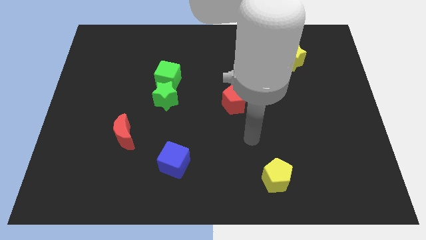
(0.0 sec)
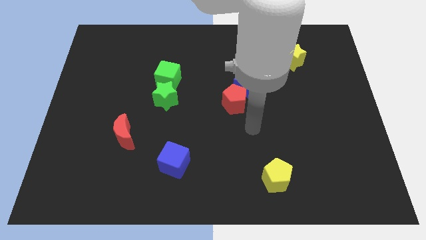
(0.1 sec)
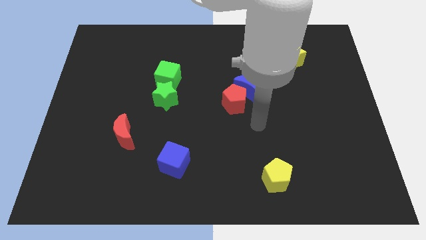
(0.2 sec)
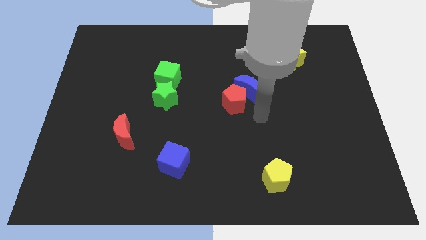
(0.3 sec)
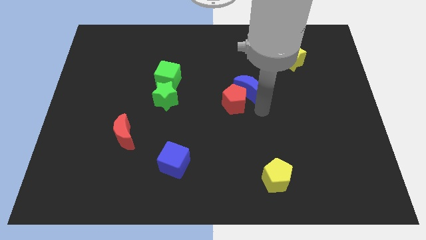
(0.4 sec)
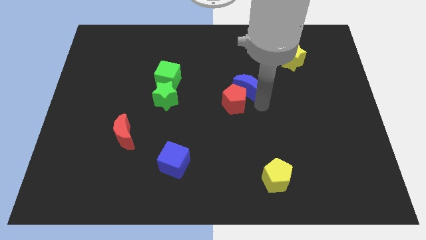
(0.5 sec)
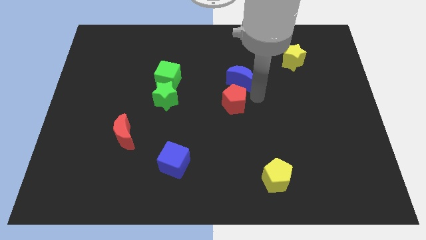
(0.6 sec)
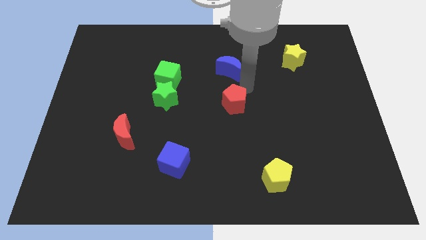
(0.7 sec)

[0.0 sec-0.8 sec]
separate the red pentagon from the blue moon

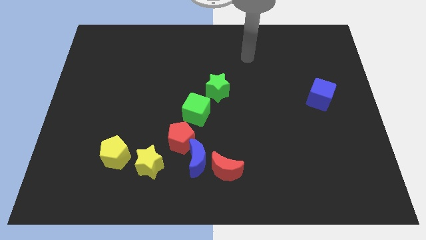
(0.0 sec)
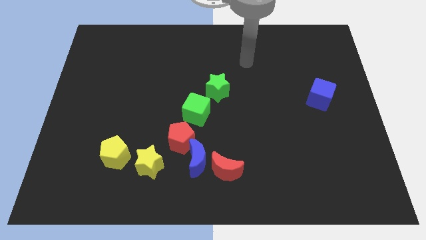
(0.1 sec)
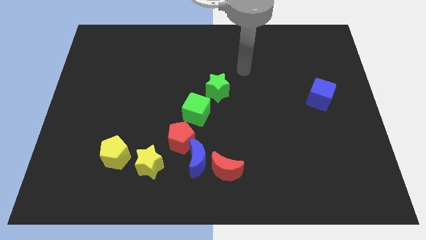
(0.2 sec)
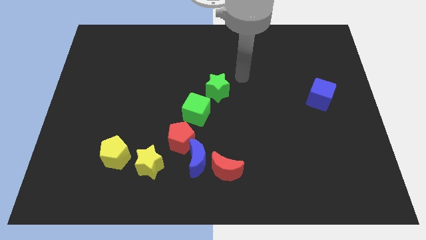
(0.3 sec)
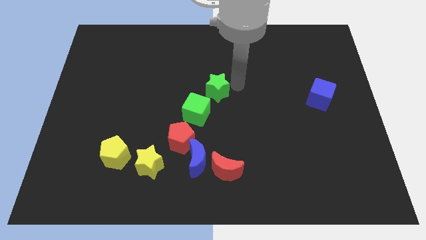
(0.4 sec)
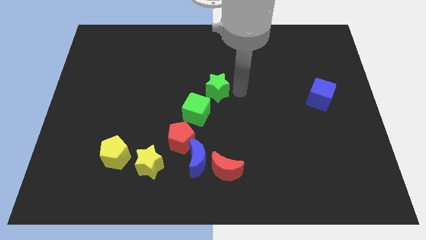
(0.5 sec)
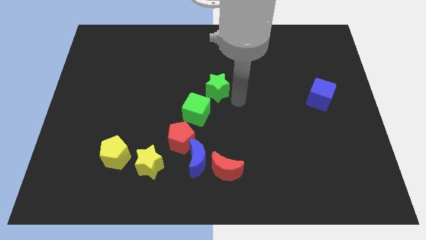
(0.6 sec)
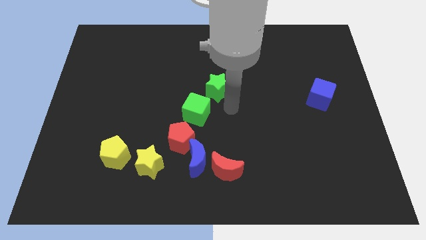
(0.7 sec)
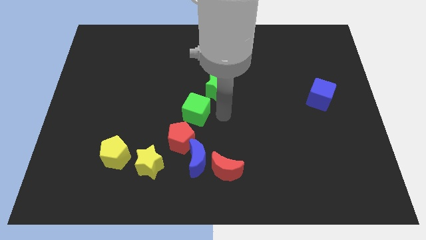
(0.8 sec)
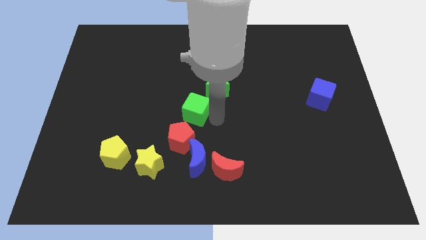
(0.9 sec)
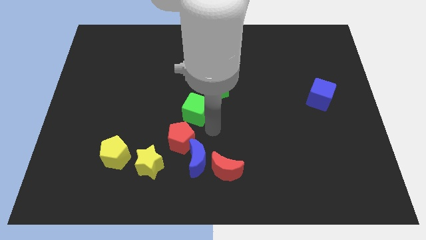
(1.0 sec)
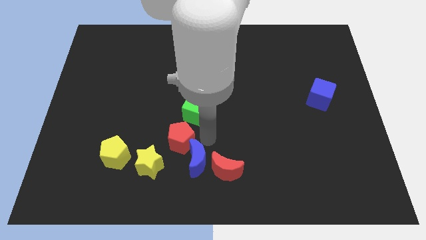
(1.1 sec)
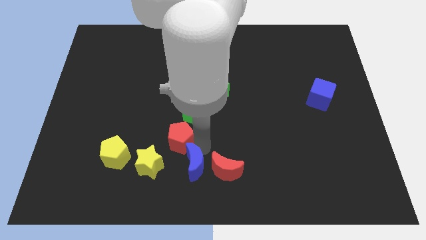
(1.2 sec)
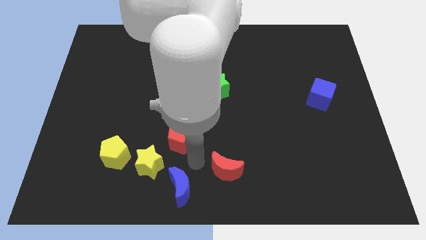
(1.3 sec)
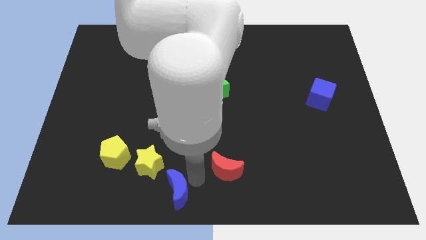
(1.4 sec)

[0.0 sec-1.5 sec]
pull the red moon apart from the blue moon

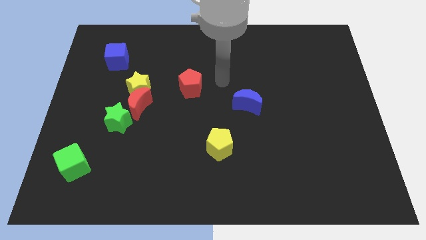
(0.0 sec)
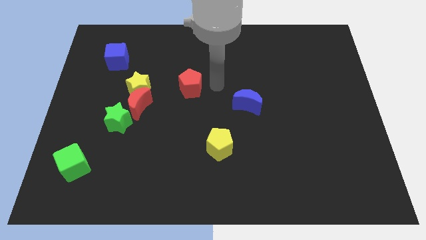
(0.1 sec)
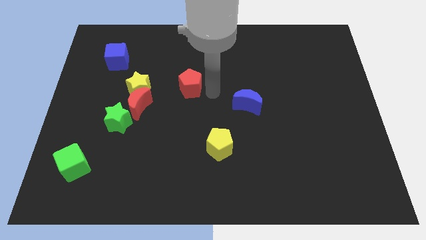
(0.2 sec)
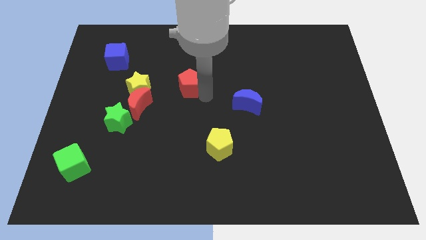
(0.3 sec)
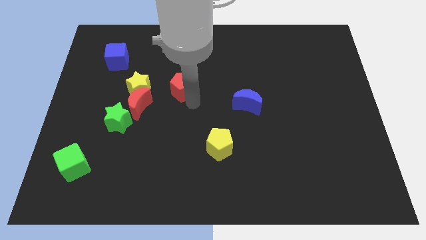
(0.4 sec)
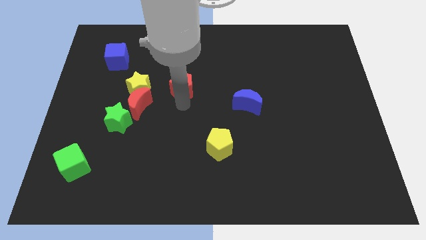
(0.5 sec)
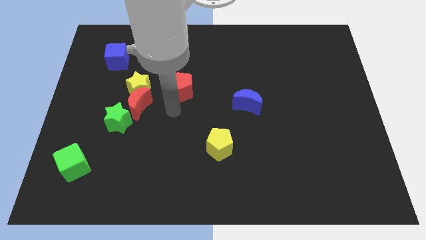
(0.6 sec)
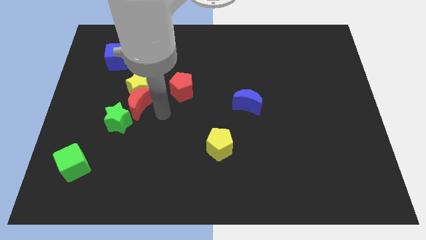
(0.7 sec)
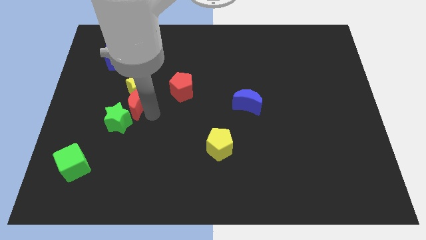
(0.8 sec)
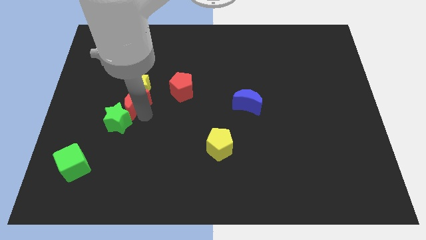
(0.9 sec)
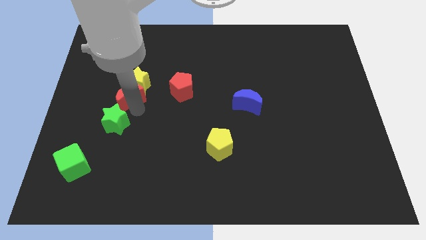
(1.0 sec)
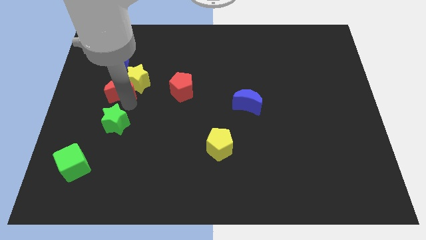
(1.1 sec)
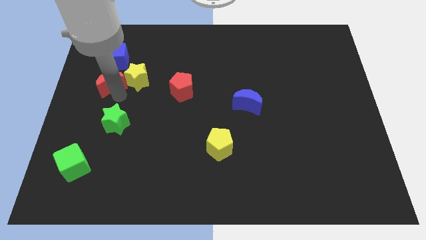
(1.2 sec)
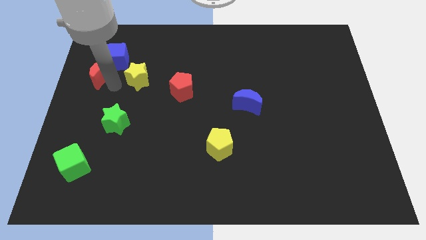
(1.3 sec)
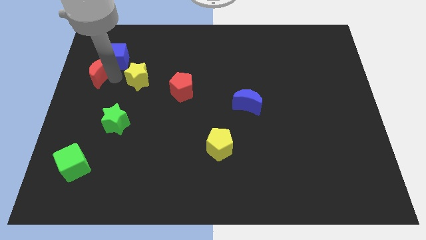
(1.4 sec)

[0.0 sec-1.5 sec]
separate the yellow star from the red moon

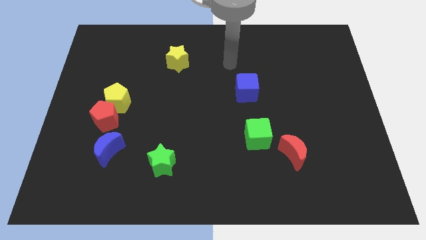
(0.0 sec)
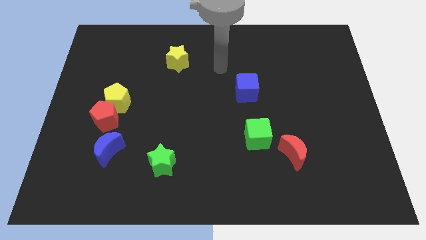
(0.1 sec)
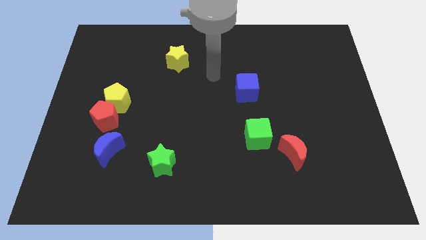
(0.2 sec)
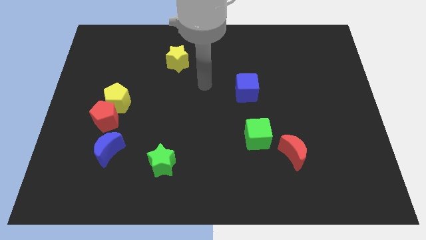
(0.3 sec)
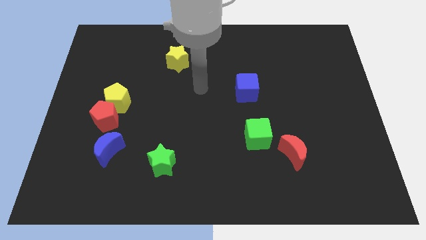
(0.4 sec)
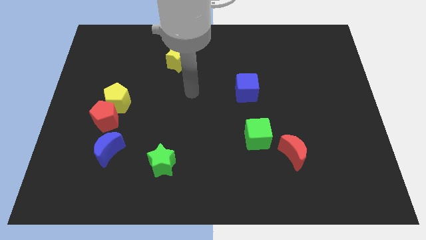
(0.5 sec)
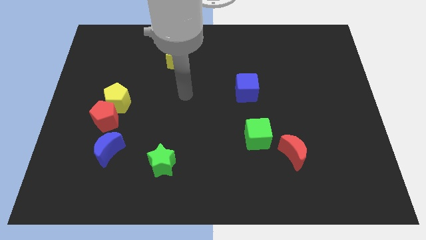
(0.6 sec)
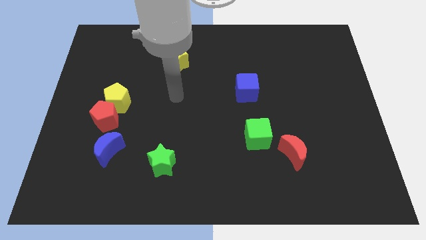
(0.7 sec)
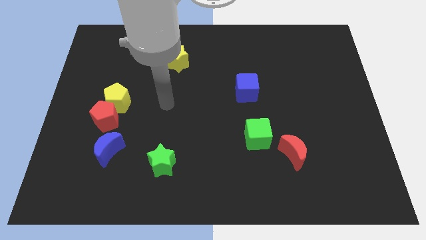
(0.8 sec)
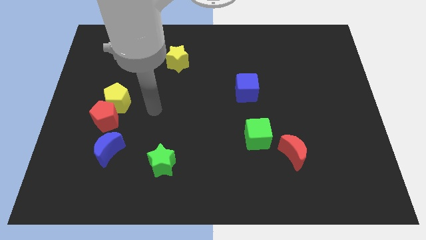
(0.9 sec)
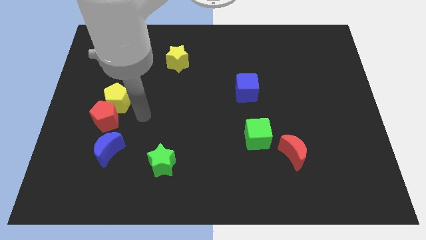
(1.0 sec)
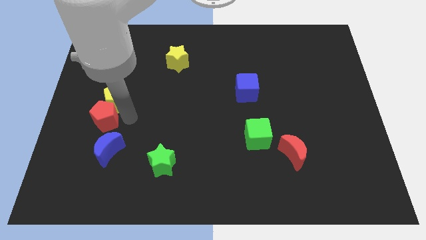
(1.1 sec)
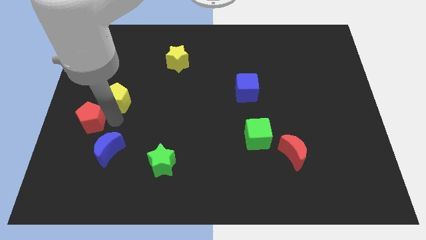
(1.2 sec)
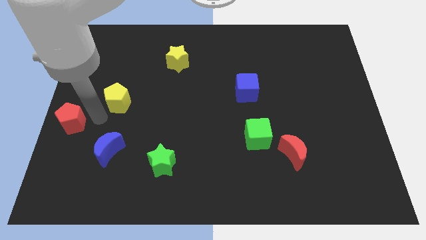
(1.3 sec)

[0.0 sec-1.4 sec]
separate the yellow pentagon from the red pentagon

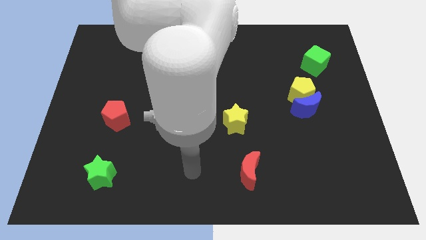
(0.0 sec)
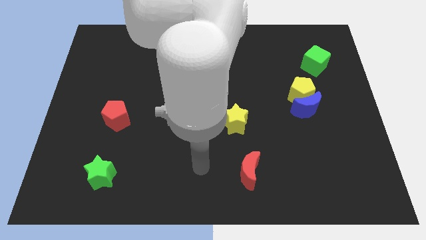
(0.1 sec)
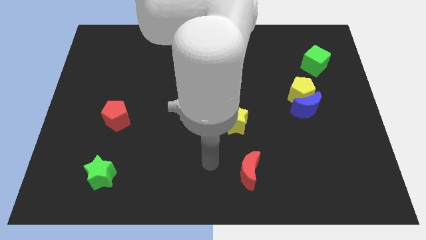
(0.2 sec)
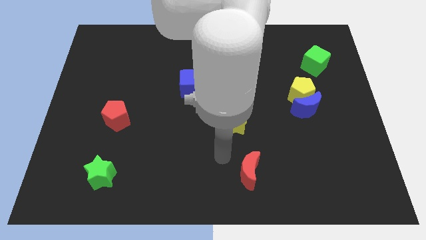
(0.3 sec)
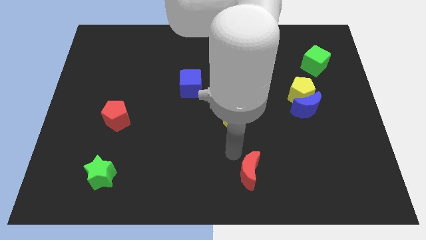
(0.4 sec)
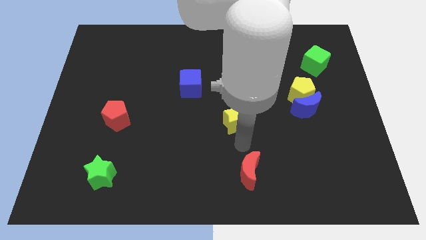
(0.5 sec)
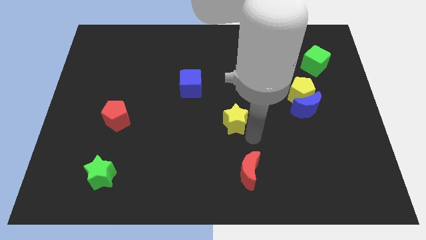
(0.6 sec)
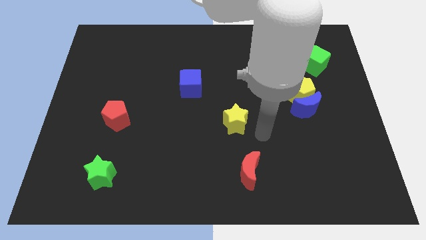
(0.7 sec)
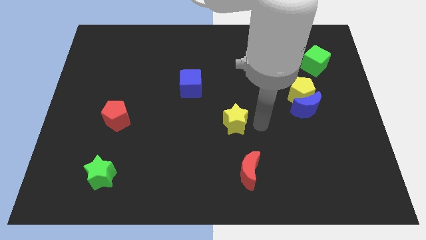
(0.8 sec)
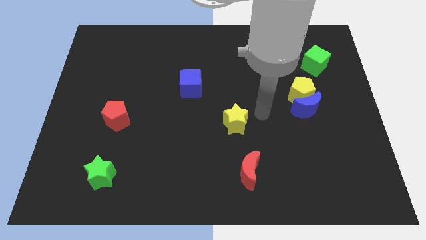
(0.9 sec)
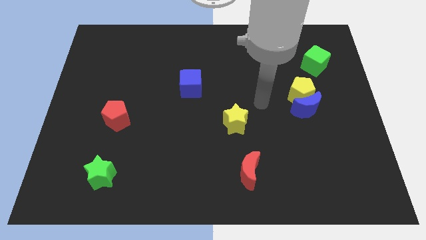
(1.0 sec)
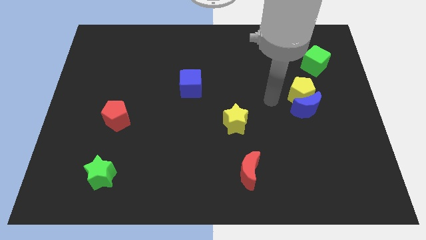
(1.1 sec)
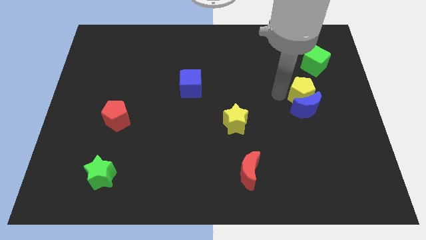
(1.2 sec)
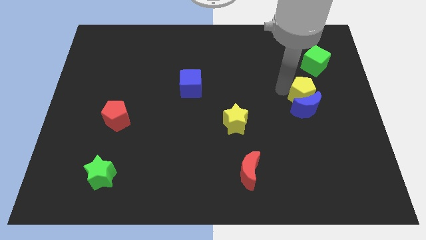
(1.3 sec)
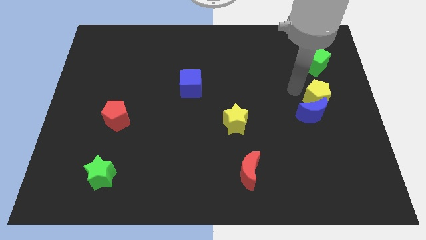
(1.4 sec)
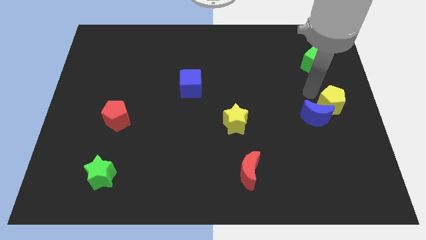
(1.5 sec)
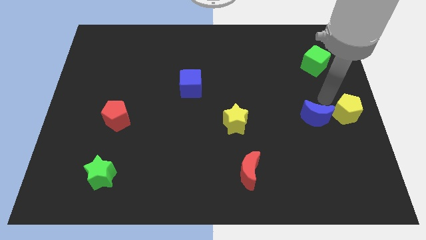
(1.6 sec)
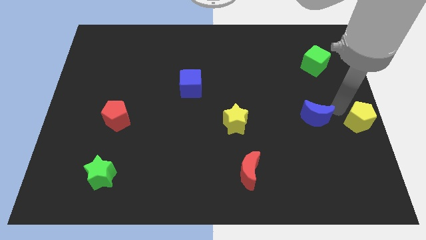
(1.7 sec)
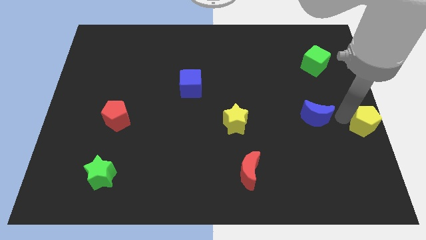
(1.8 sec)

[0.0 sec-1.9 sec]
pull the blue moon apart from the yellow pentagon

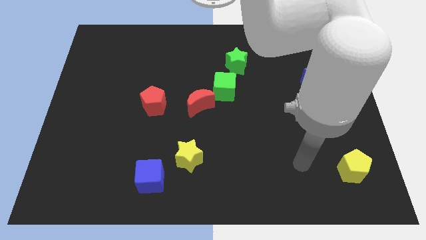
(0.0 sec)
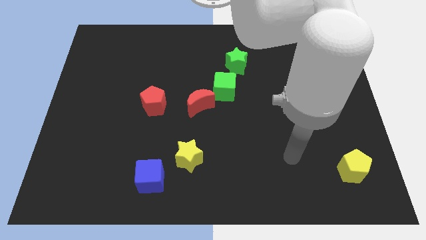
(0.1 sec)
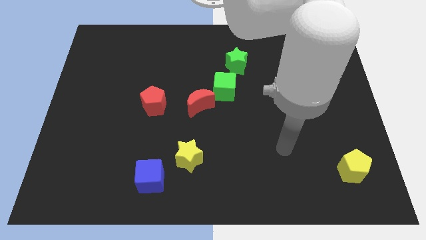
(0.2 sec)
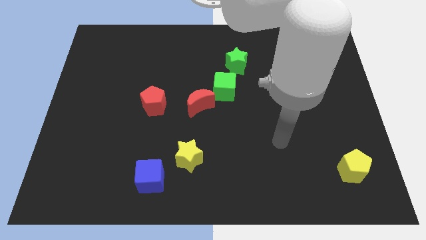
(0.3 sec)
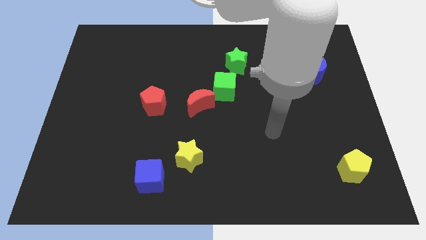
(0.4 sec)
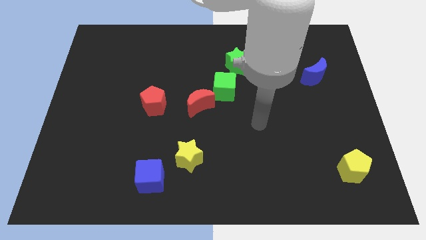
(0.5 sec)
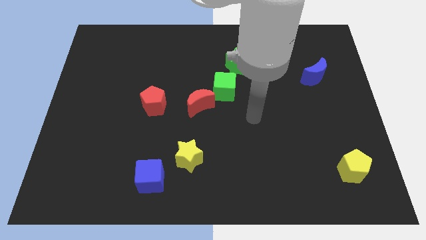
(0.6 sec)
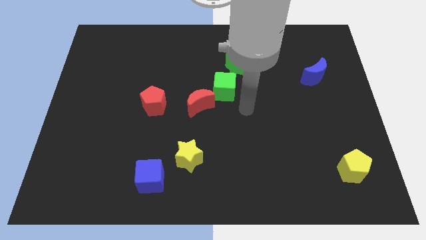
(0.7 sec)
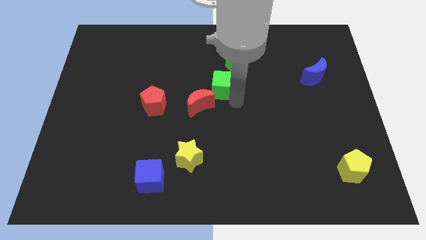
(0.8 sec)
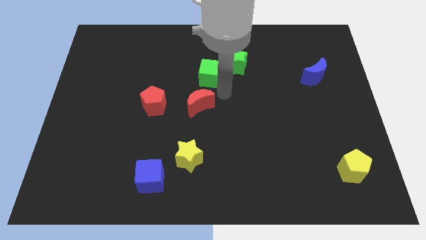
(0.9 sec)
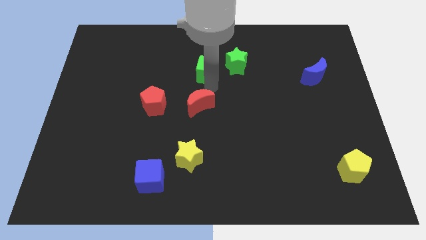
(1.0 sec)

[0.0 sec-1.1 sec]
move the red moon away from the green cube

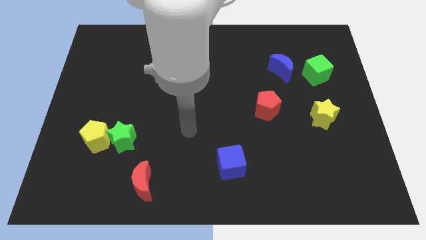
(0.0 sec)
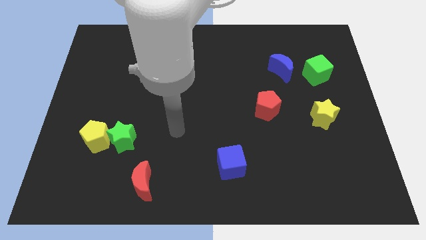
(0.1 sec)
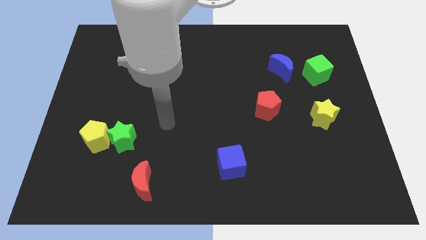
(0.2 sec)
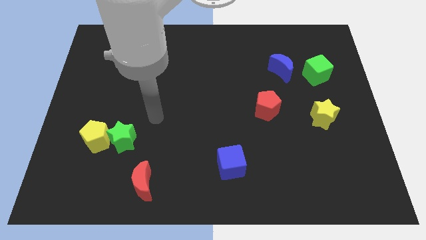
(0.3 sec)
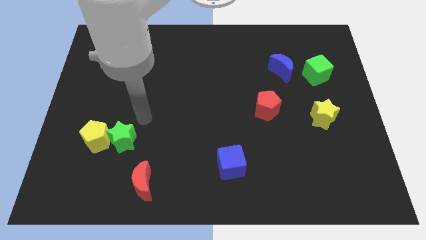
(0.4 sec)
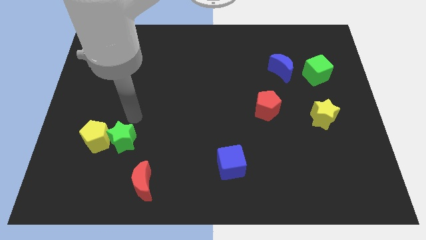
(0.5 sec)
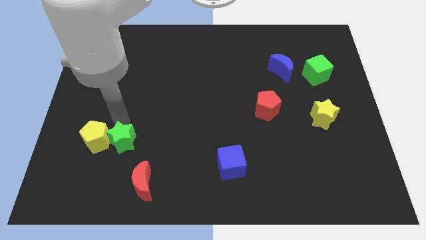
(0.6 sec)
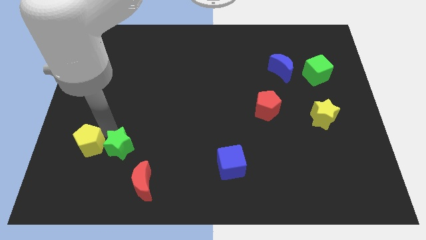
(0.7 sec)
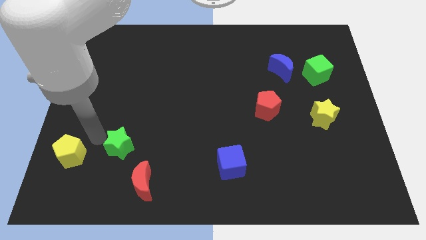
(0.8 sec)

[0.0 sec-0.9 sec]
pull the green star apart from the yellow pentagon

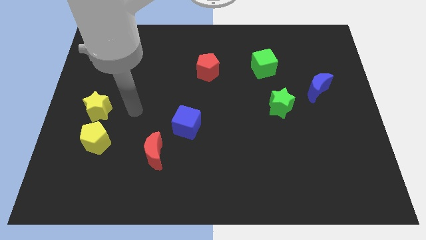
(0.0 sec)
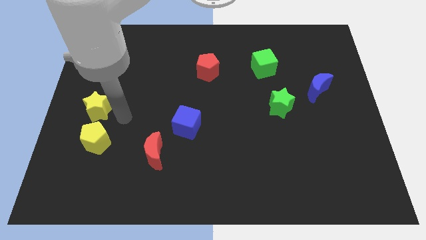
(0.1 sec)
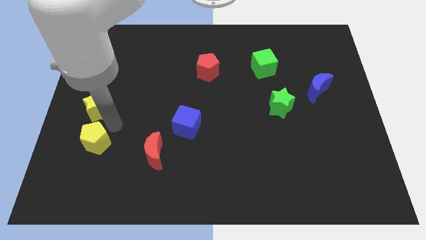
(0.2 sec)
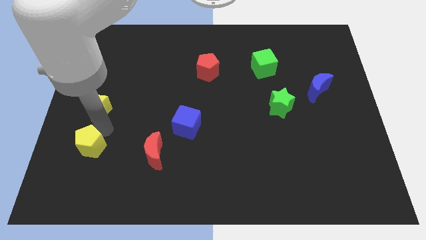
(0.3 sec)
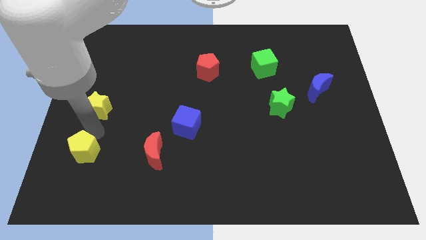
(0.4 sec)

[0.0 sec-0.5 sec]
move the yellow star away from the yellow pentagon
